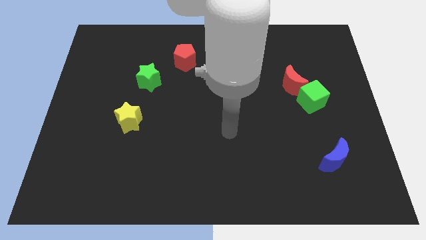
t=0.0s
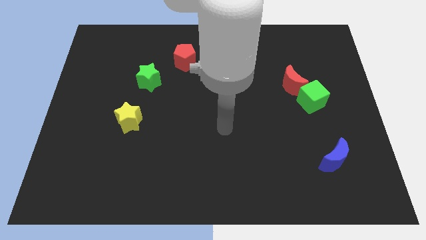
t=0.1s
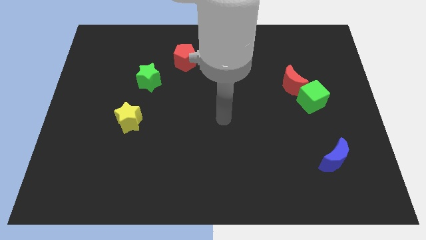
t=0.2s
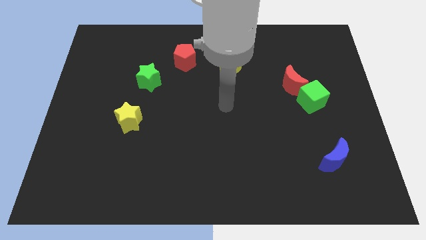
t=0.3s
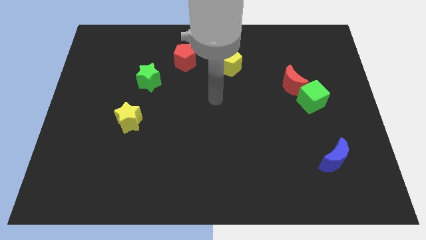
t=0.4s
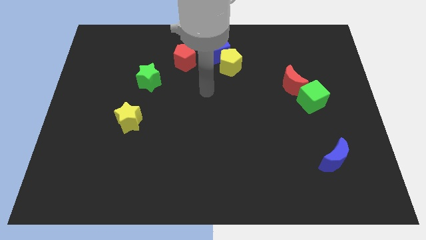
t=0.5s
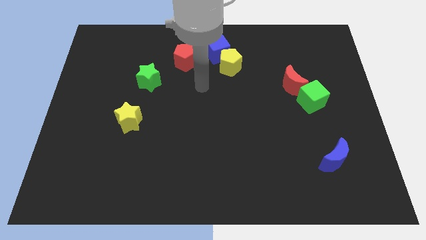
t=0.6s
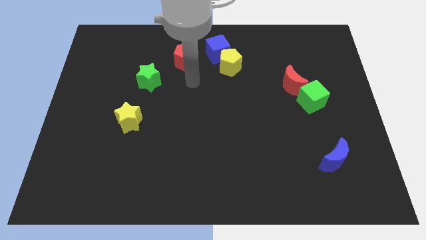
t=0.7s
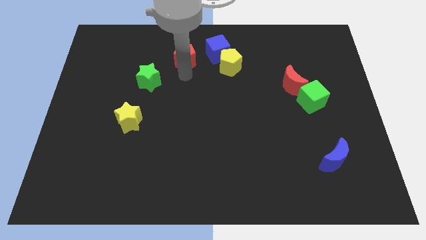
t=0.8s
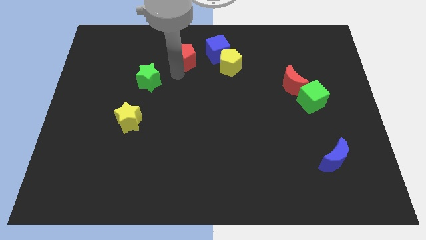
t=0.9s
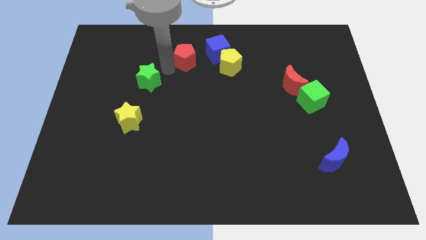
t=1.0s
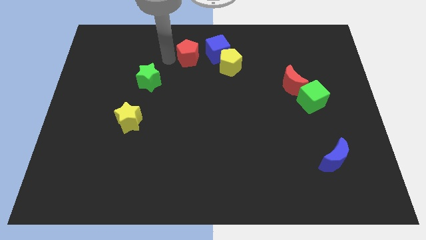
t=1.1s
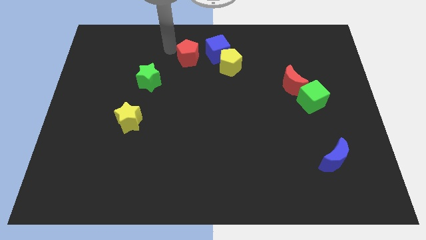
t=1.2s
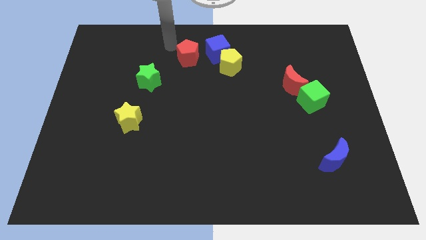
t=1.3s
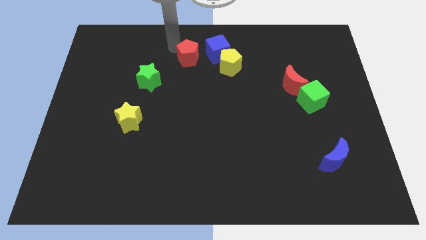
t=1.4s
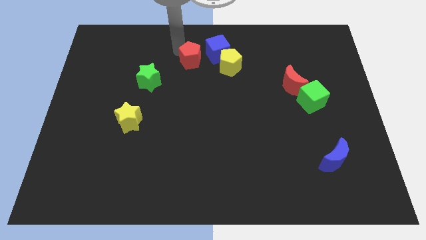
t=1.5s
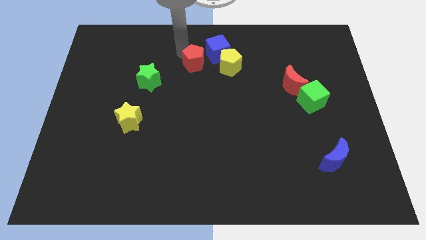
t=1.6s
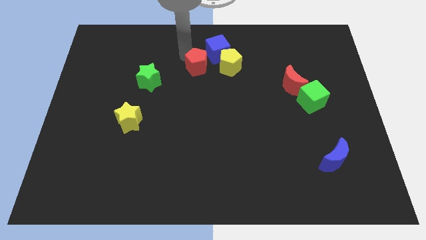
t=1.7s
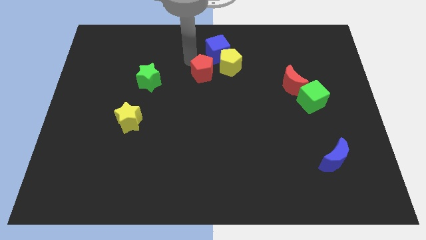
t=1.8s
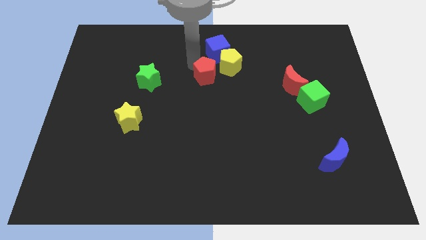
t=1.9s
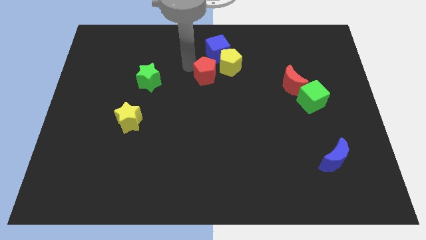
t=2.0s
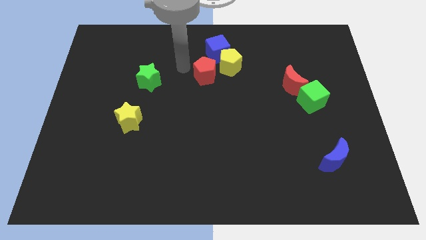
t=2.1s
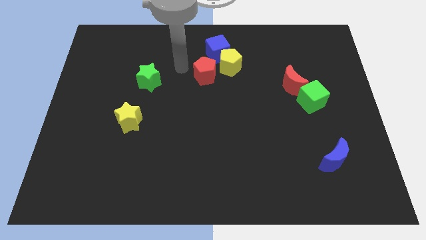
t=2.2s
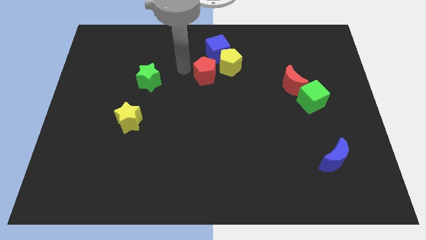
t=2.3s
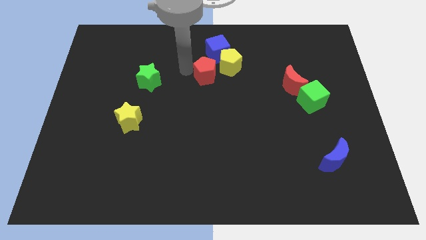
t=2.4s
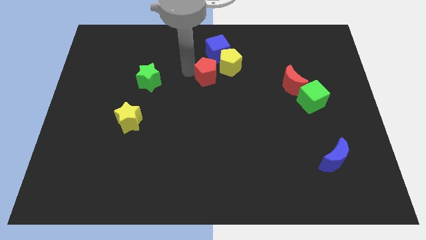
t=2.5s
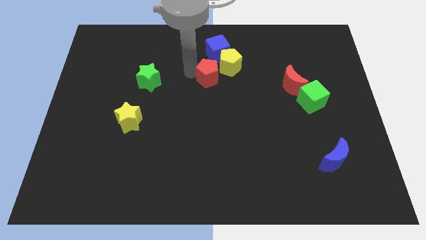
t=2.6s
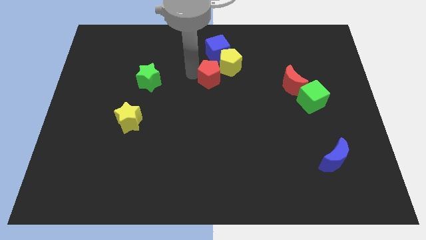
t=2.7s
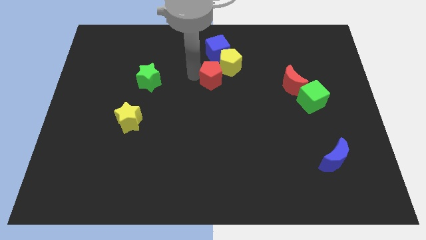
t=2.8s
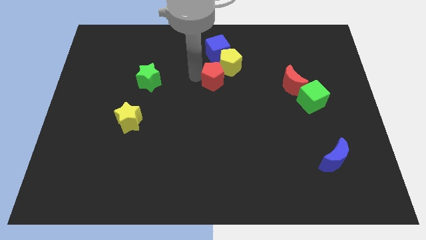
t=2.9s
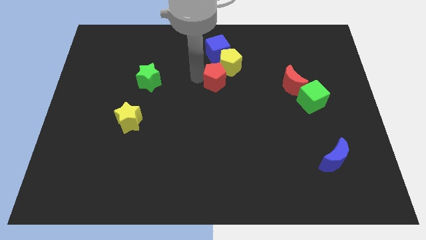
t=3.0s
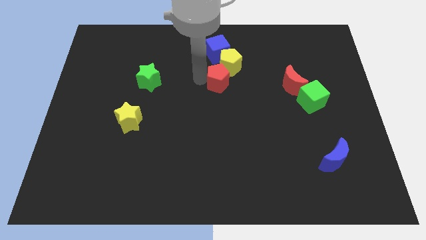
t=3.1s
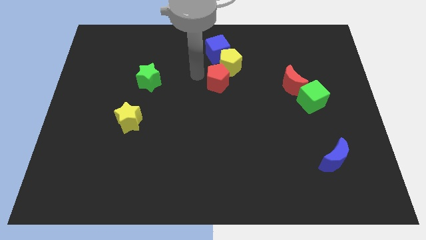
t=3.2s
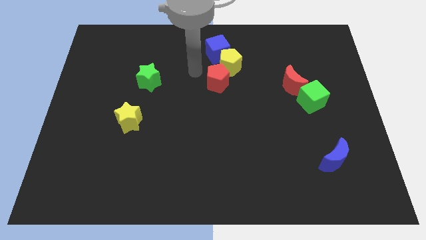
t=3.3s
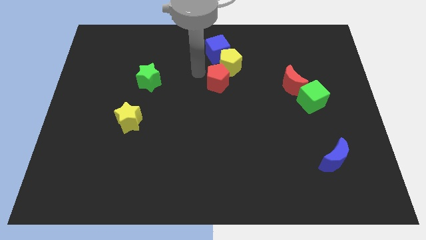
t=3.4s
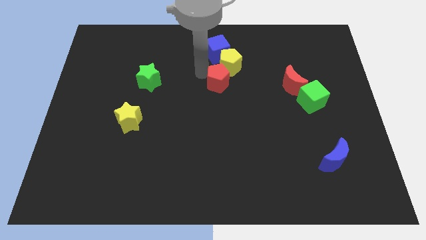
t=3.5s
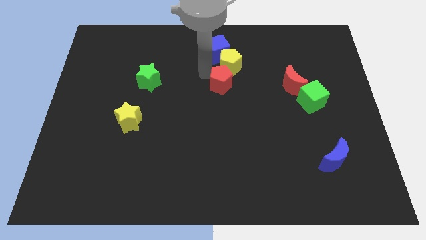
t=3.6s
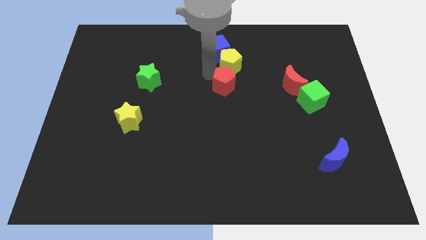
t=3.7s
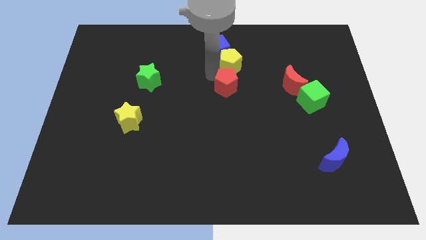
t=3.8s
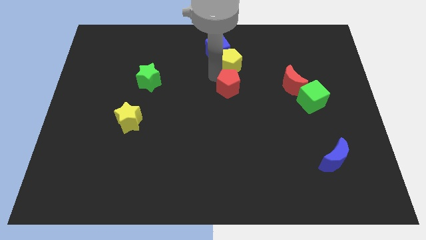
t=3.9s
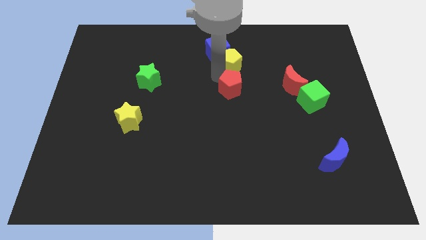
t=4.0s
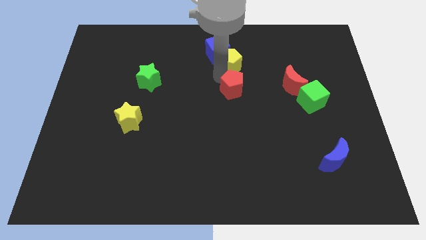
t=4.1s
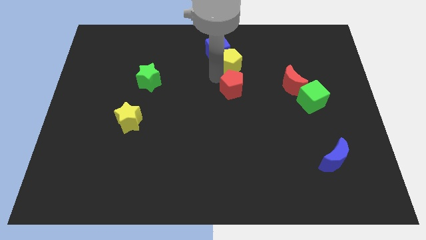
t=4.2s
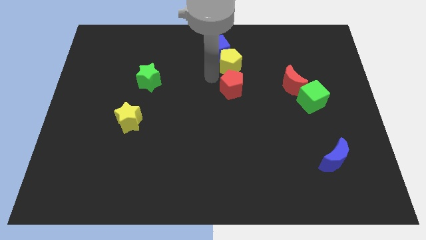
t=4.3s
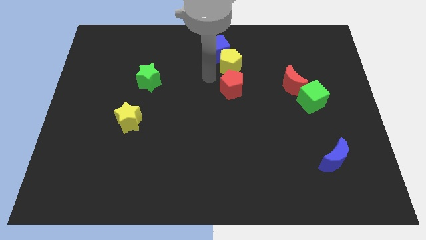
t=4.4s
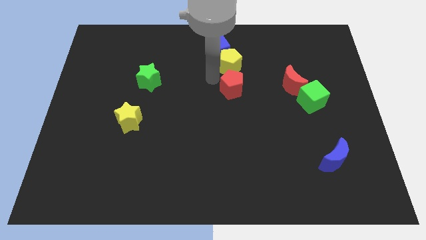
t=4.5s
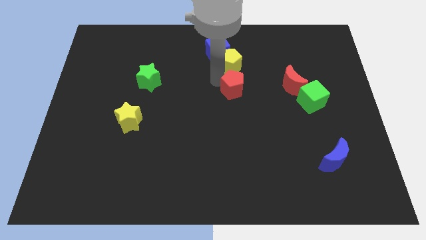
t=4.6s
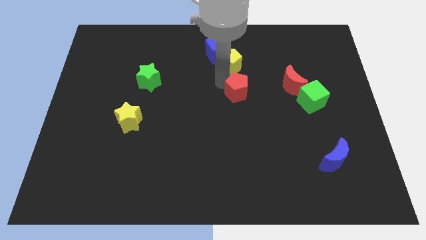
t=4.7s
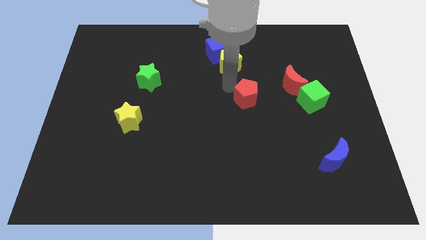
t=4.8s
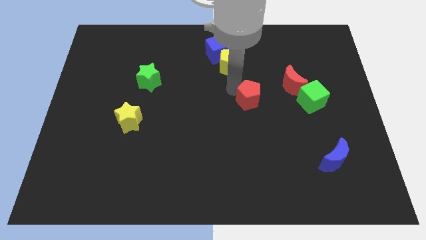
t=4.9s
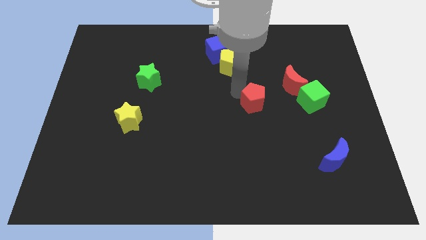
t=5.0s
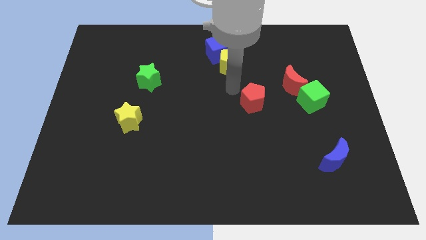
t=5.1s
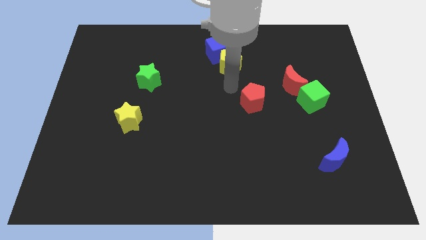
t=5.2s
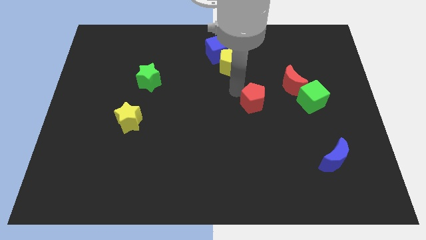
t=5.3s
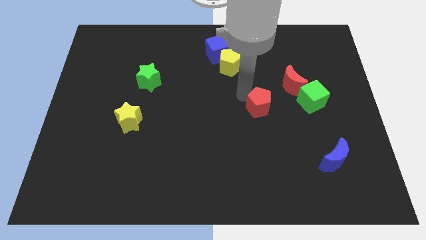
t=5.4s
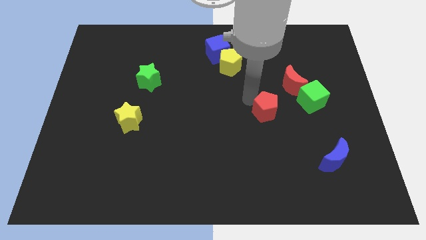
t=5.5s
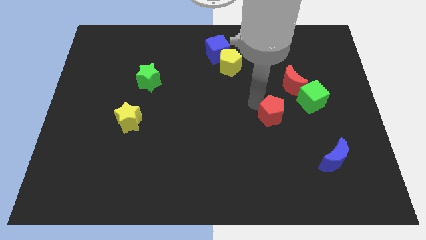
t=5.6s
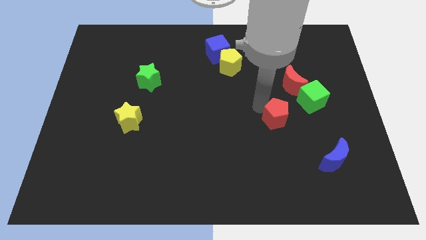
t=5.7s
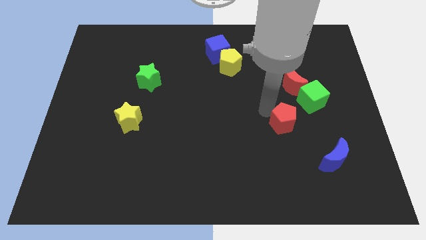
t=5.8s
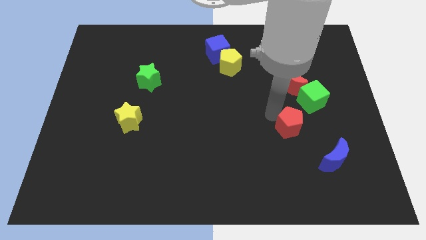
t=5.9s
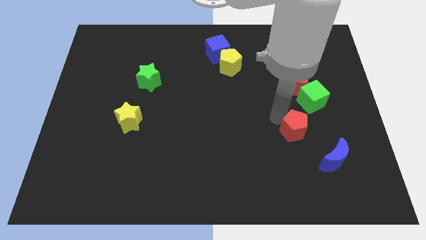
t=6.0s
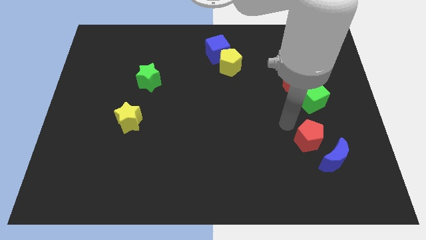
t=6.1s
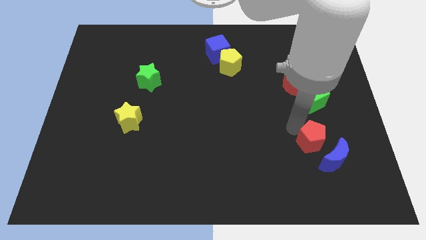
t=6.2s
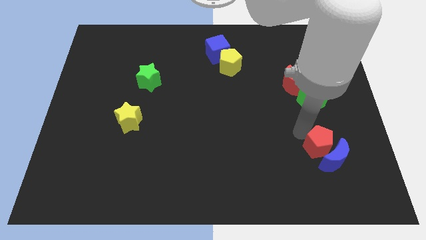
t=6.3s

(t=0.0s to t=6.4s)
slide the red pentagon next to the blue moon

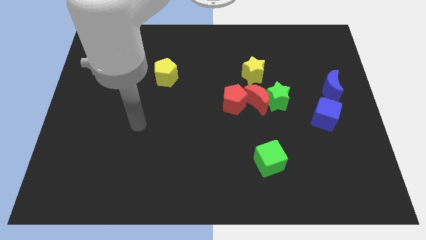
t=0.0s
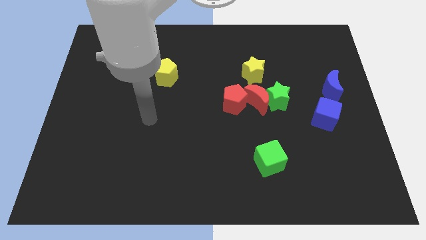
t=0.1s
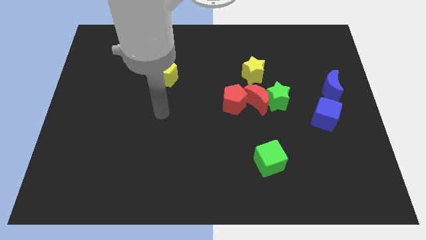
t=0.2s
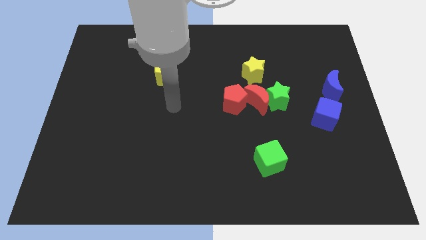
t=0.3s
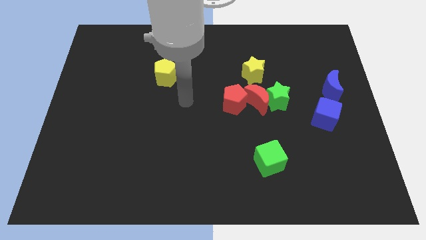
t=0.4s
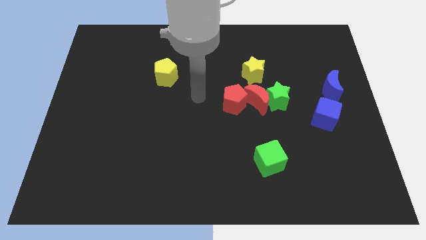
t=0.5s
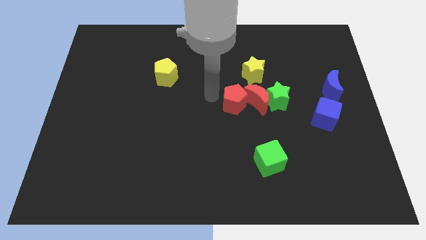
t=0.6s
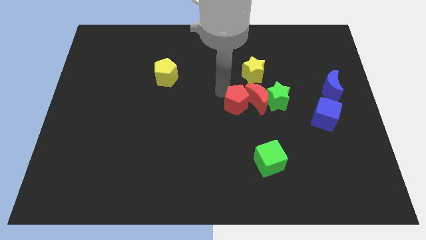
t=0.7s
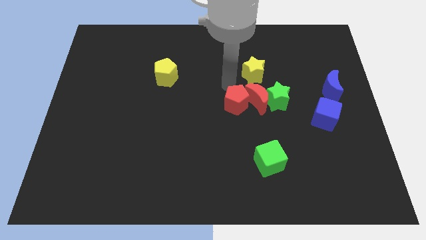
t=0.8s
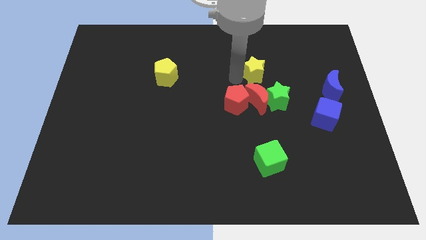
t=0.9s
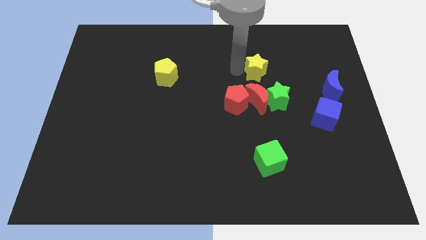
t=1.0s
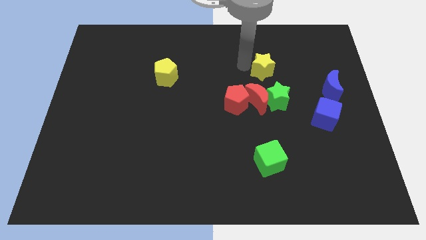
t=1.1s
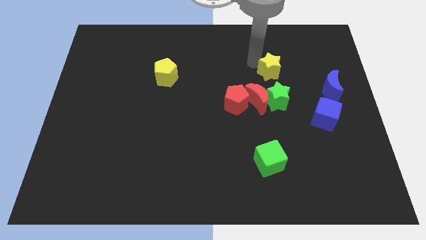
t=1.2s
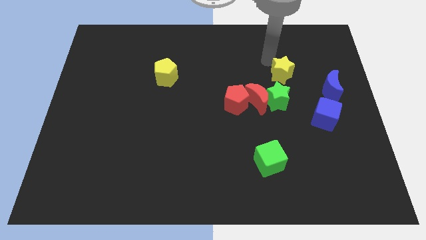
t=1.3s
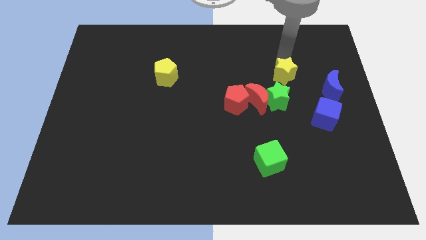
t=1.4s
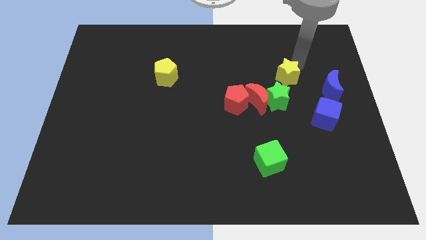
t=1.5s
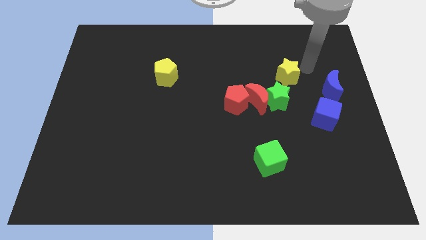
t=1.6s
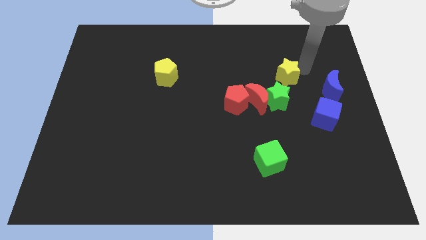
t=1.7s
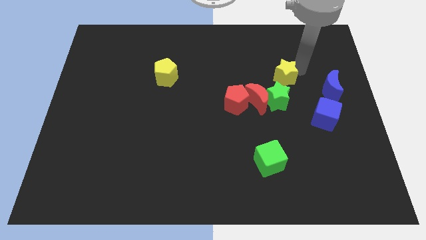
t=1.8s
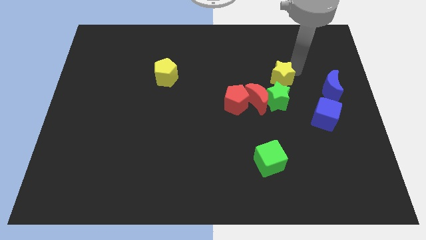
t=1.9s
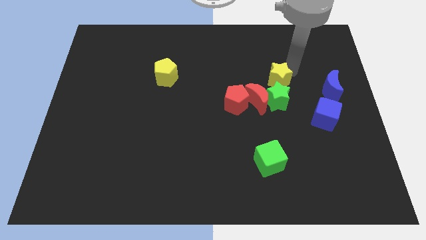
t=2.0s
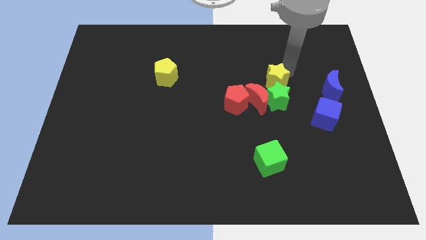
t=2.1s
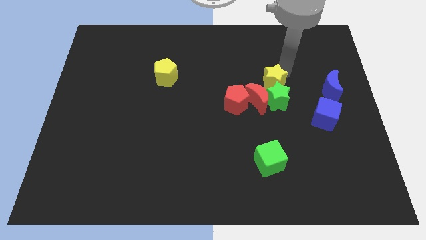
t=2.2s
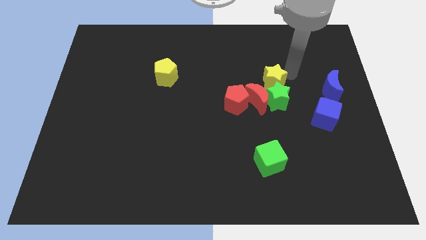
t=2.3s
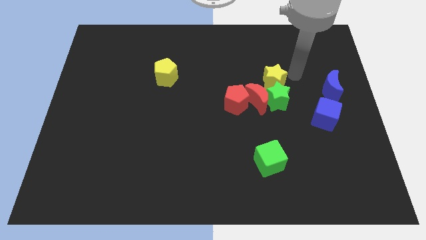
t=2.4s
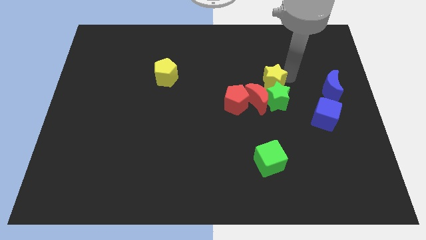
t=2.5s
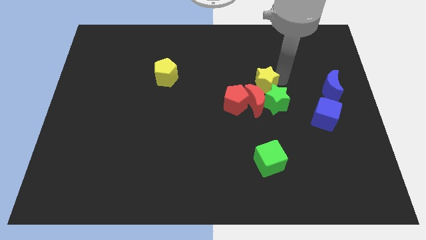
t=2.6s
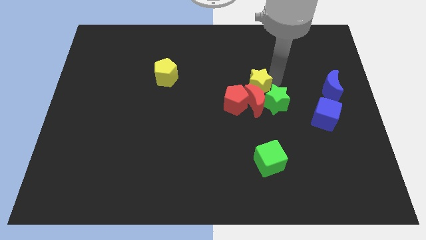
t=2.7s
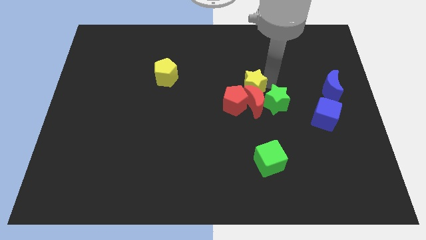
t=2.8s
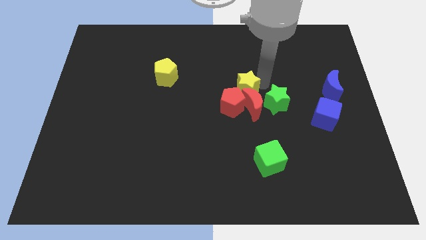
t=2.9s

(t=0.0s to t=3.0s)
move the yellow star towards the red pentagon
